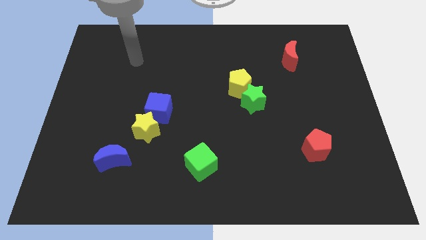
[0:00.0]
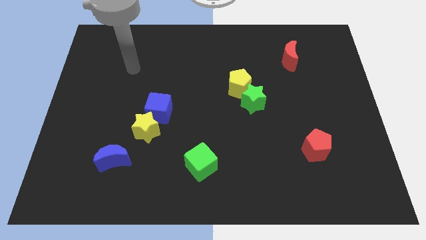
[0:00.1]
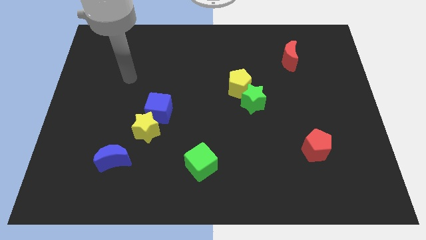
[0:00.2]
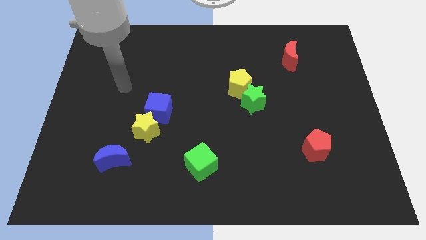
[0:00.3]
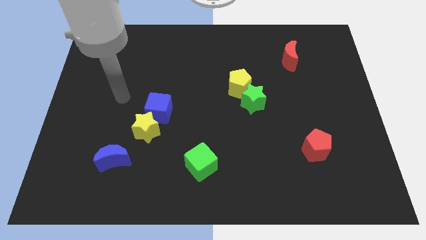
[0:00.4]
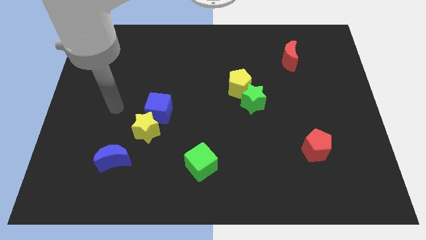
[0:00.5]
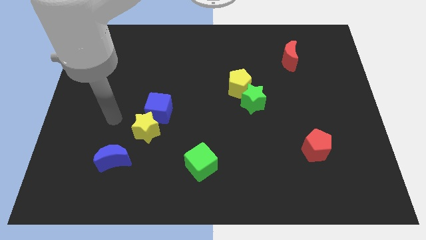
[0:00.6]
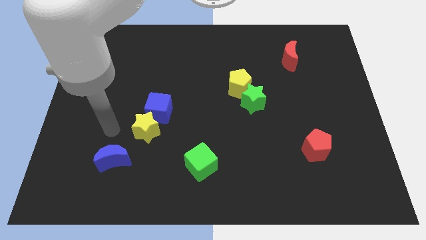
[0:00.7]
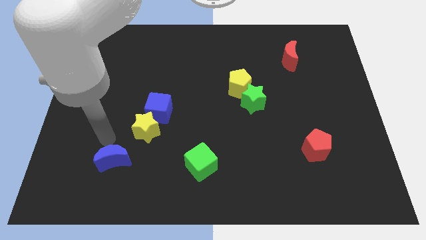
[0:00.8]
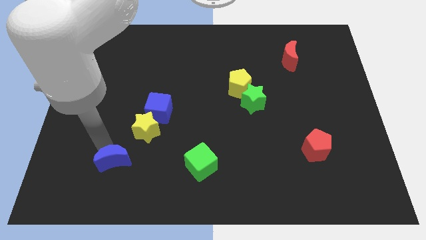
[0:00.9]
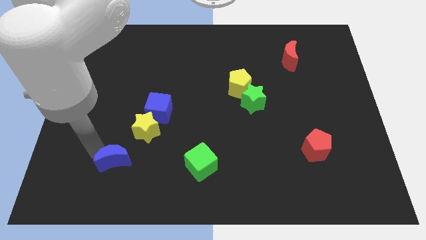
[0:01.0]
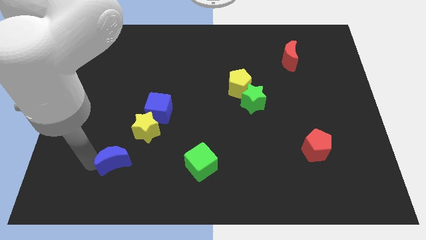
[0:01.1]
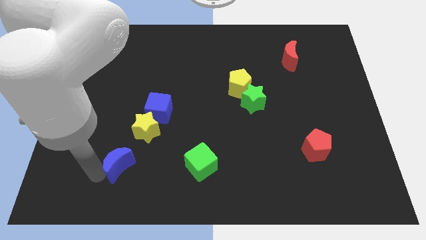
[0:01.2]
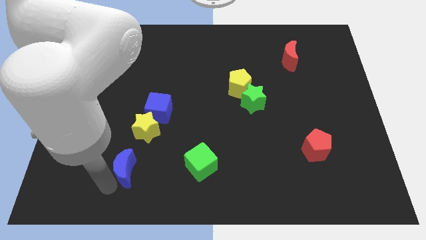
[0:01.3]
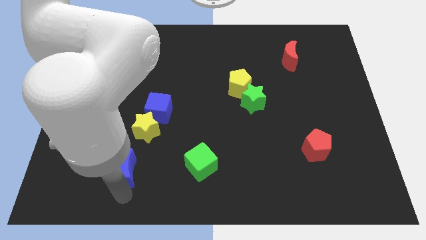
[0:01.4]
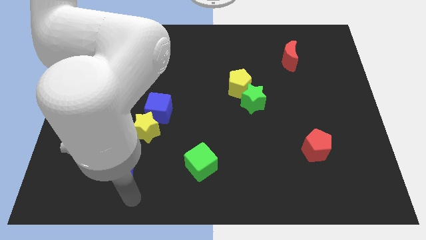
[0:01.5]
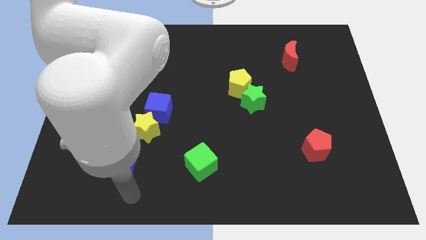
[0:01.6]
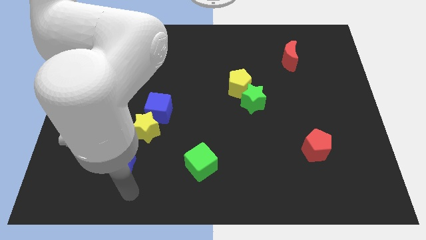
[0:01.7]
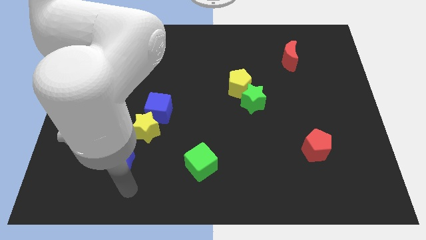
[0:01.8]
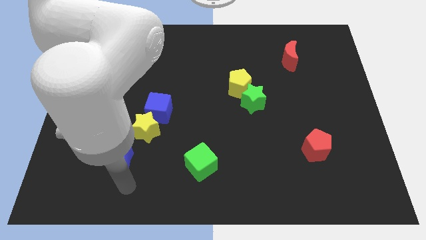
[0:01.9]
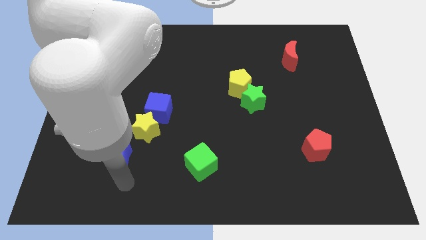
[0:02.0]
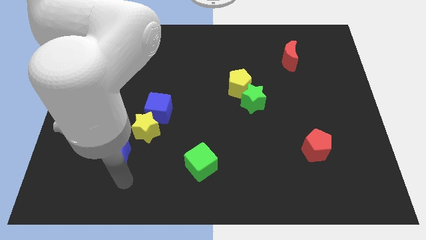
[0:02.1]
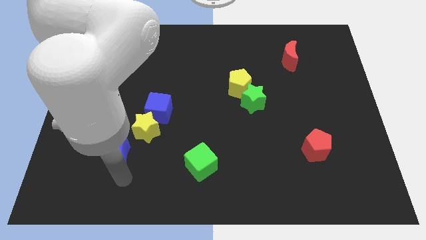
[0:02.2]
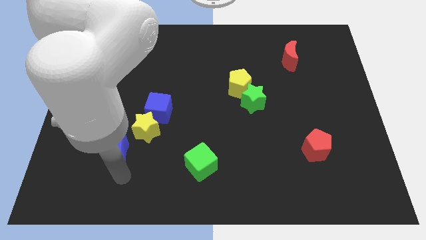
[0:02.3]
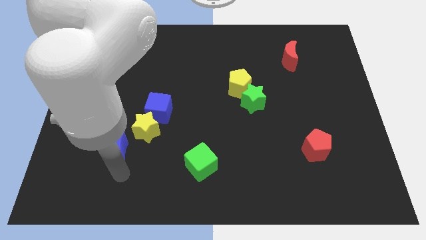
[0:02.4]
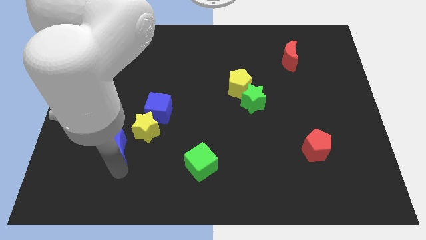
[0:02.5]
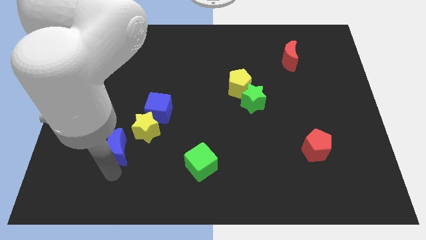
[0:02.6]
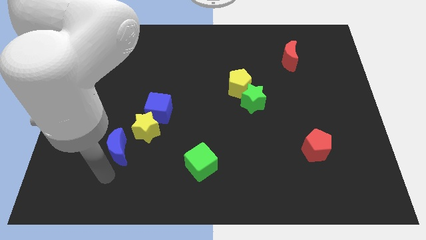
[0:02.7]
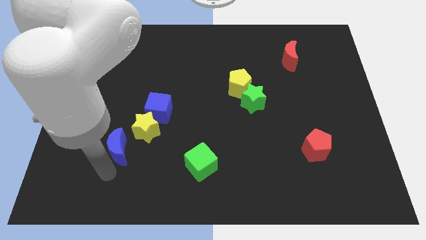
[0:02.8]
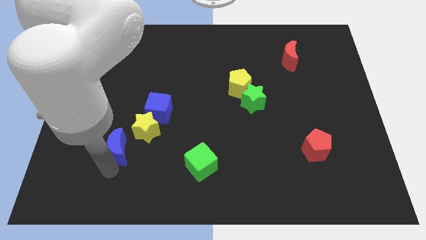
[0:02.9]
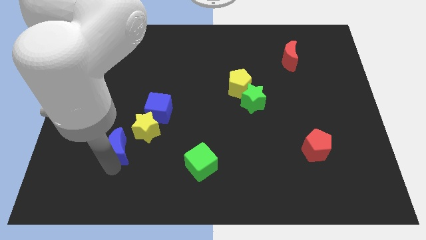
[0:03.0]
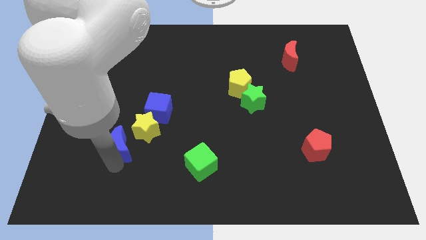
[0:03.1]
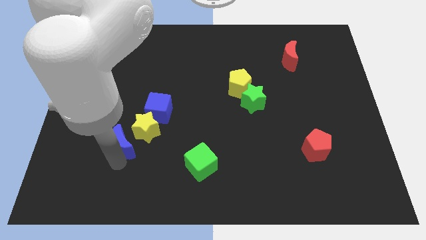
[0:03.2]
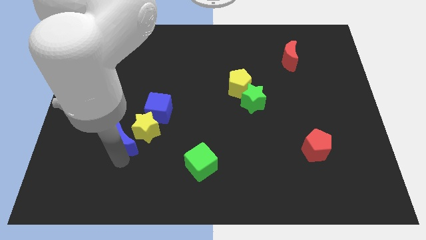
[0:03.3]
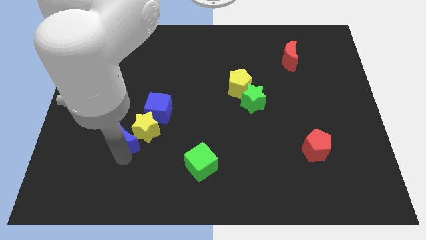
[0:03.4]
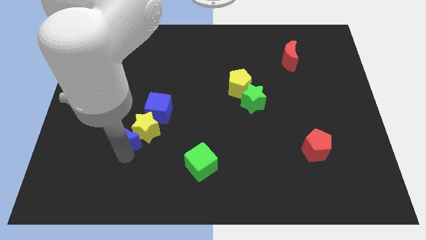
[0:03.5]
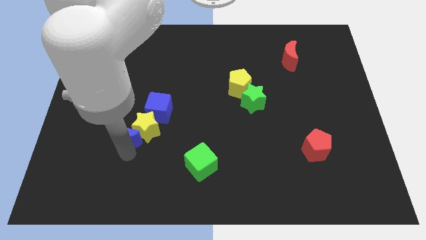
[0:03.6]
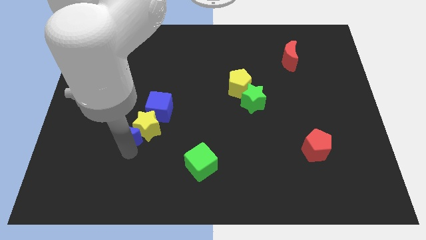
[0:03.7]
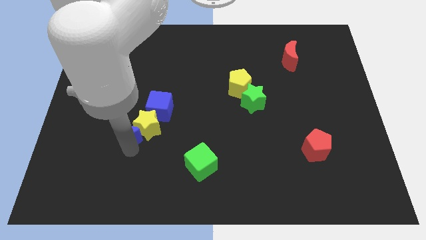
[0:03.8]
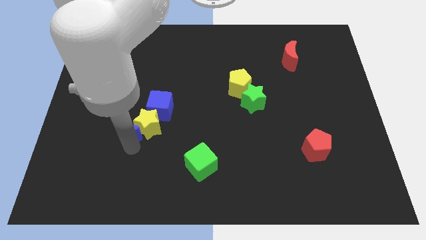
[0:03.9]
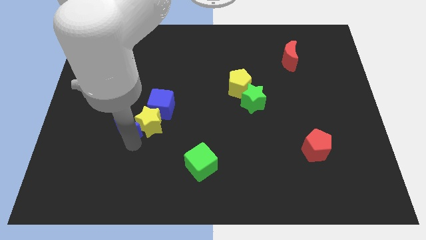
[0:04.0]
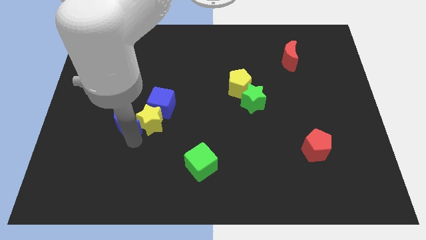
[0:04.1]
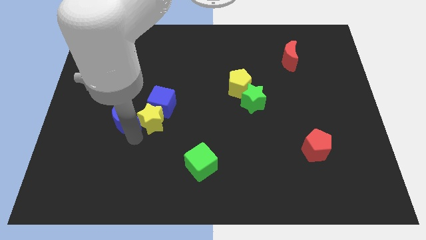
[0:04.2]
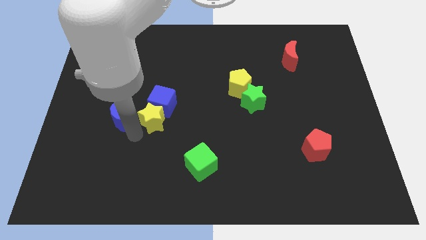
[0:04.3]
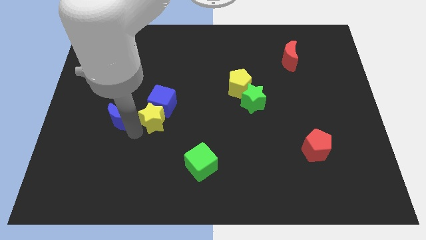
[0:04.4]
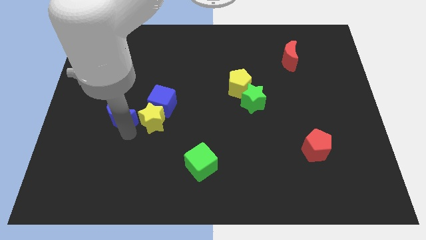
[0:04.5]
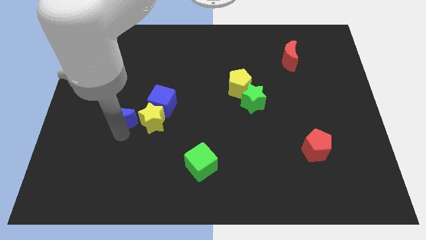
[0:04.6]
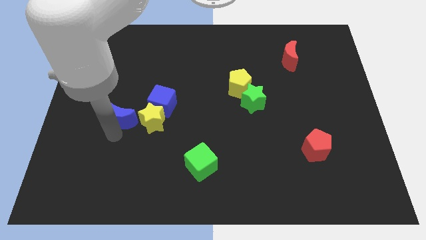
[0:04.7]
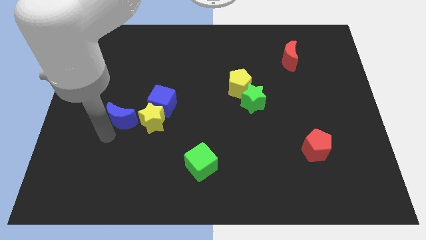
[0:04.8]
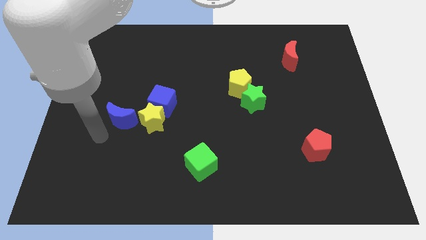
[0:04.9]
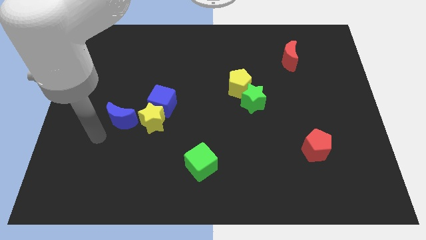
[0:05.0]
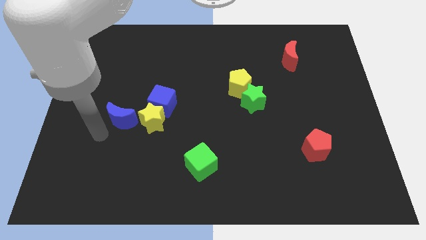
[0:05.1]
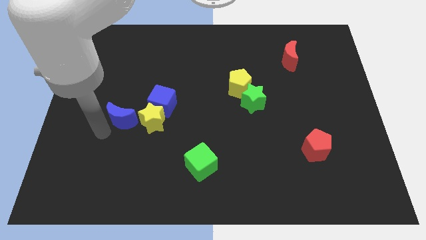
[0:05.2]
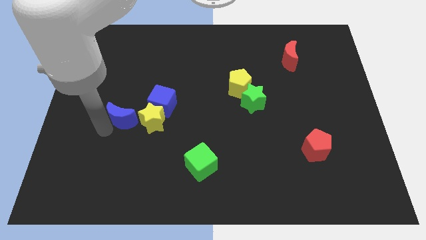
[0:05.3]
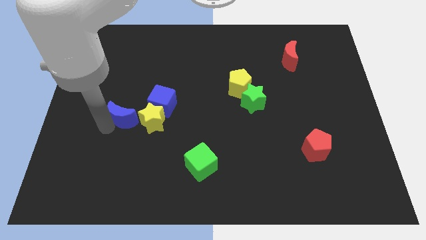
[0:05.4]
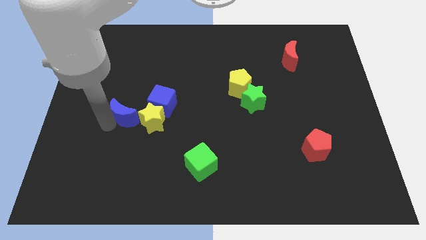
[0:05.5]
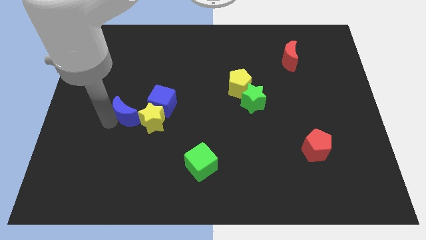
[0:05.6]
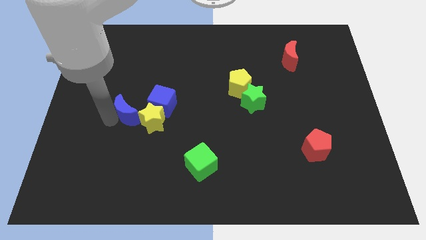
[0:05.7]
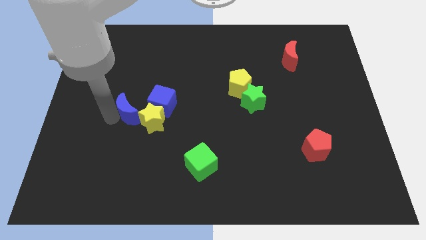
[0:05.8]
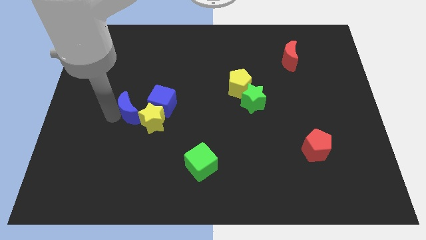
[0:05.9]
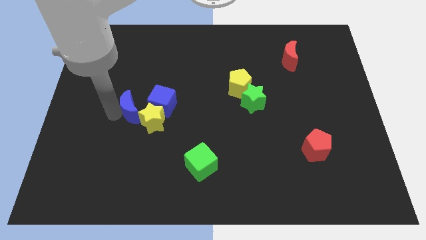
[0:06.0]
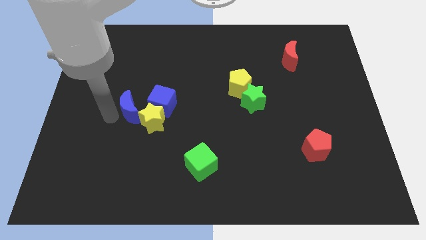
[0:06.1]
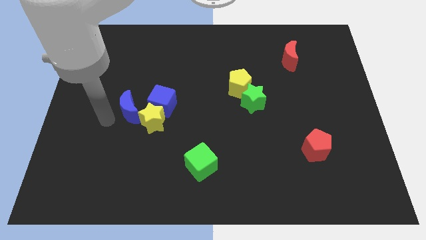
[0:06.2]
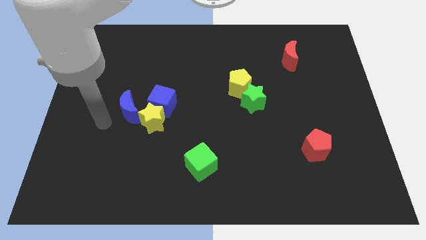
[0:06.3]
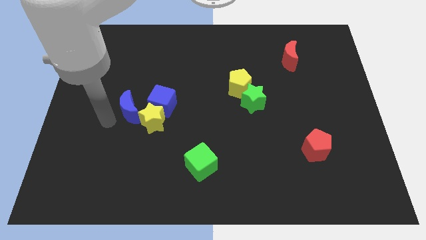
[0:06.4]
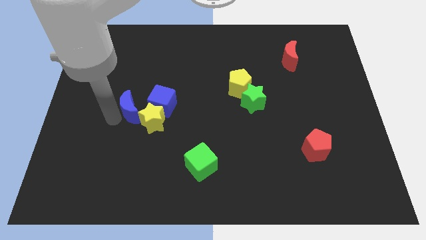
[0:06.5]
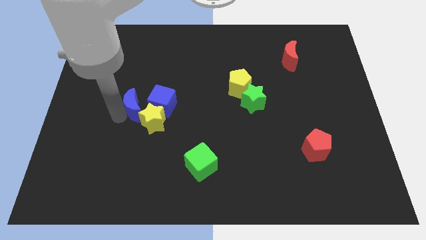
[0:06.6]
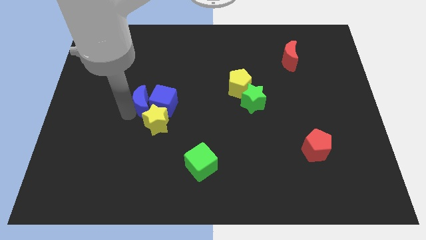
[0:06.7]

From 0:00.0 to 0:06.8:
move the blue moon to the top side of the yellow star
